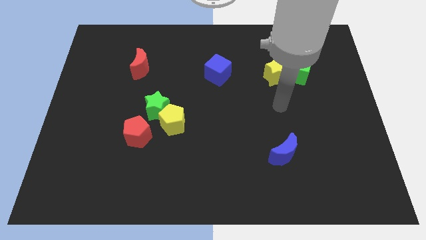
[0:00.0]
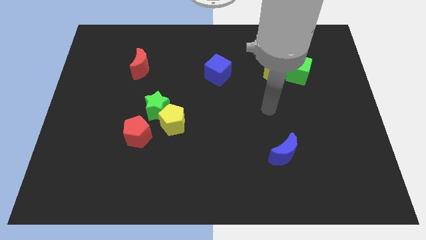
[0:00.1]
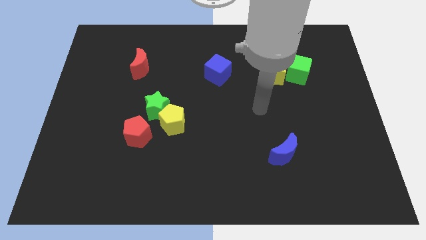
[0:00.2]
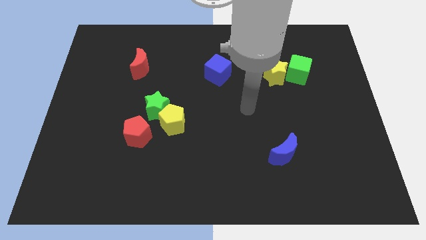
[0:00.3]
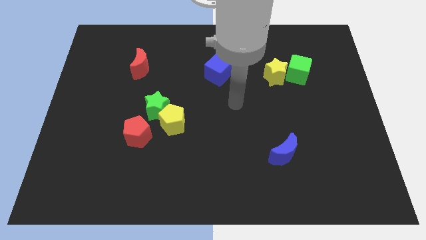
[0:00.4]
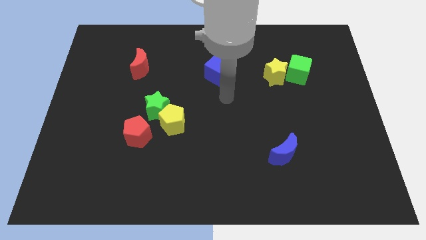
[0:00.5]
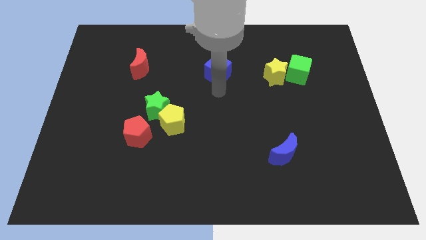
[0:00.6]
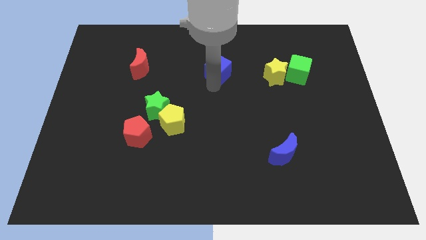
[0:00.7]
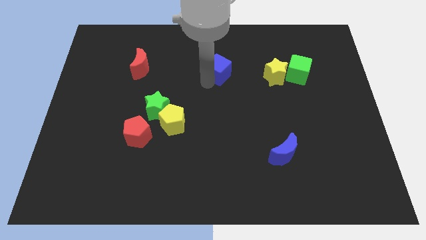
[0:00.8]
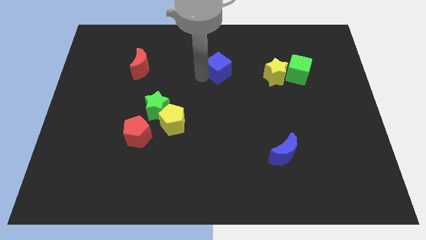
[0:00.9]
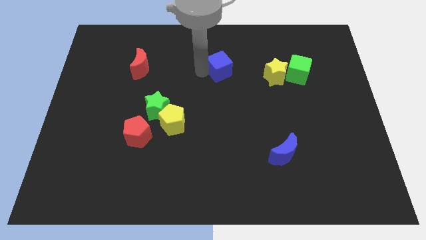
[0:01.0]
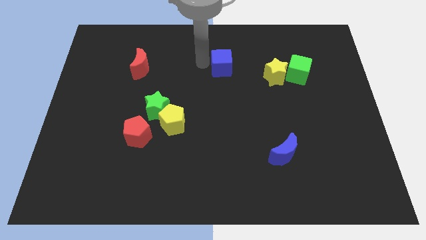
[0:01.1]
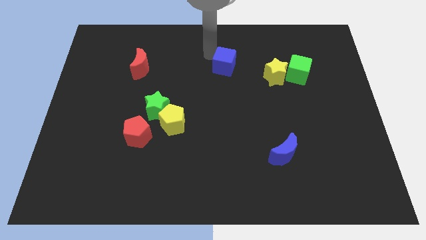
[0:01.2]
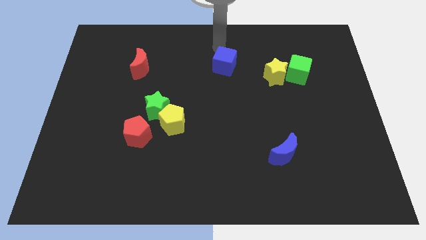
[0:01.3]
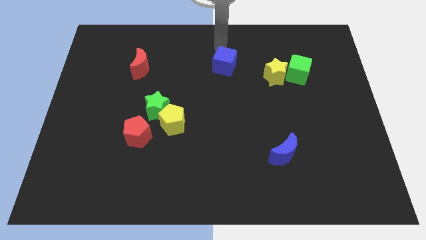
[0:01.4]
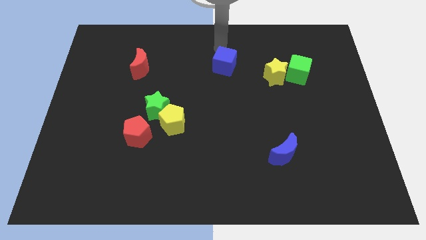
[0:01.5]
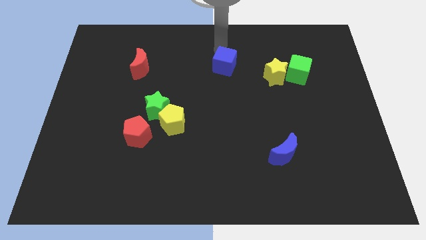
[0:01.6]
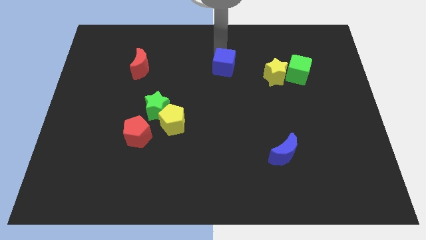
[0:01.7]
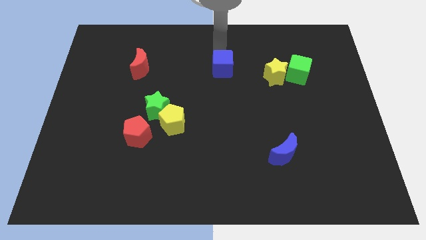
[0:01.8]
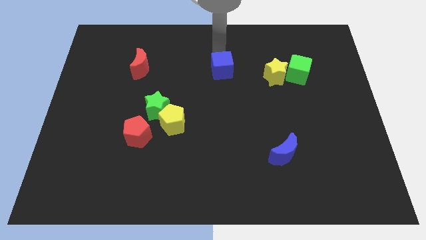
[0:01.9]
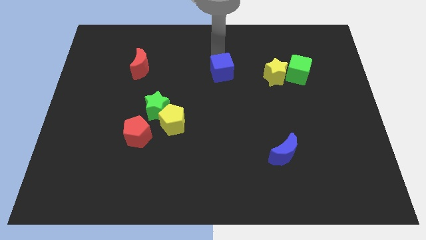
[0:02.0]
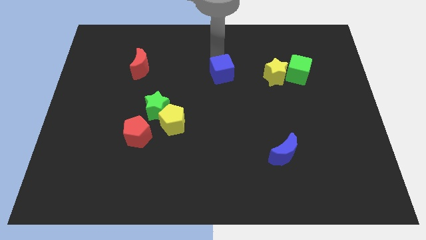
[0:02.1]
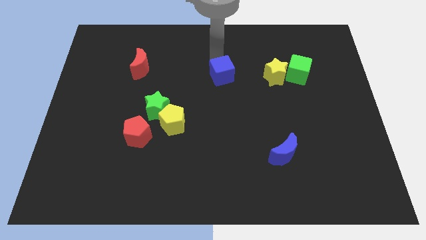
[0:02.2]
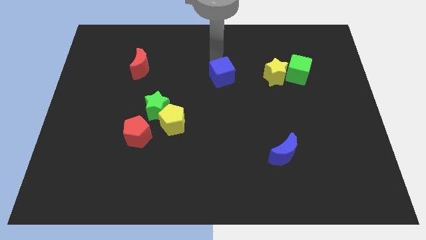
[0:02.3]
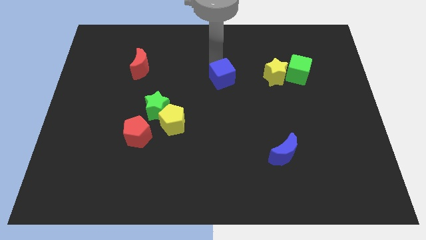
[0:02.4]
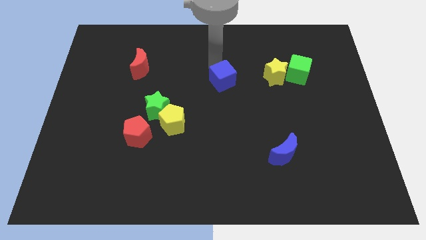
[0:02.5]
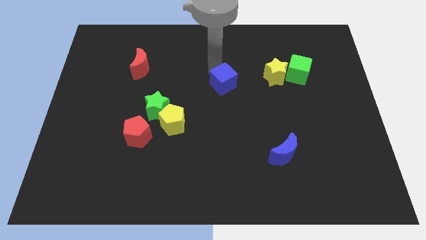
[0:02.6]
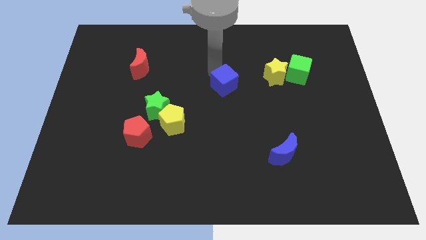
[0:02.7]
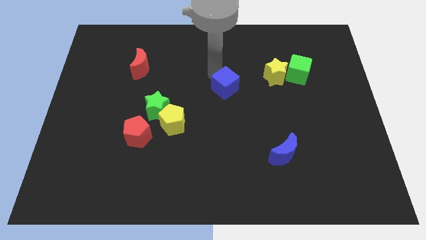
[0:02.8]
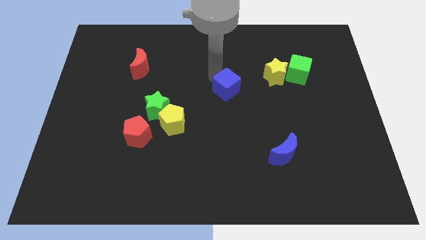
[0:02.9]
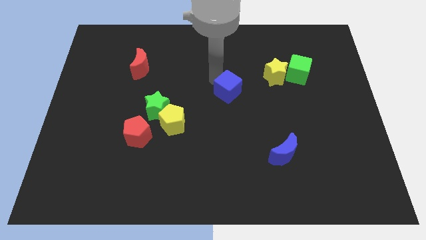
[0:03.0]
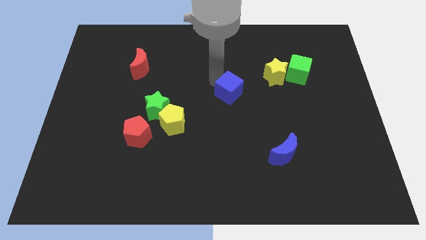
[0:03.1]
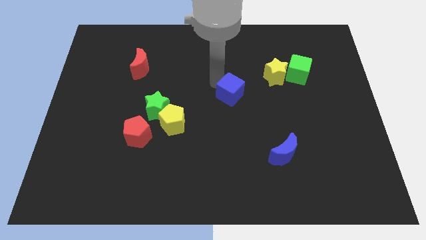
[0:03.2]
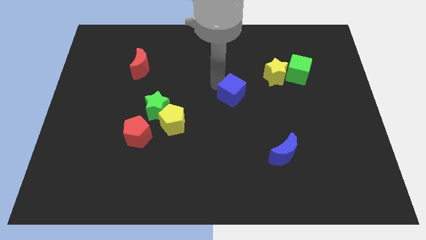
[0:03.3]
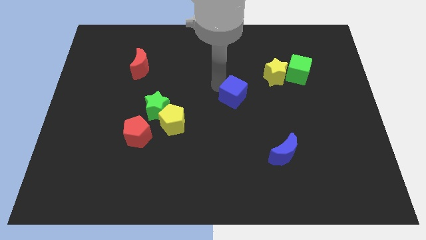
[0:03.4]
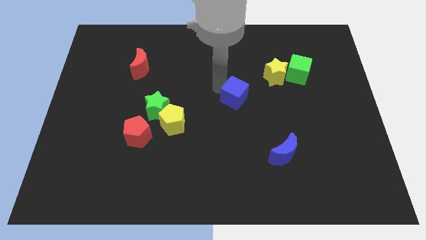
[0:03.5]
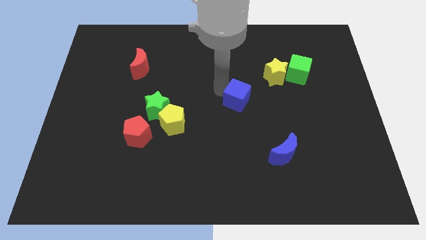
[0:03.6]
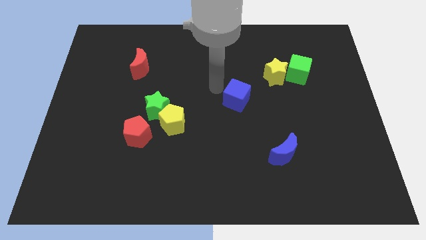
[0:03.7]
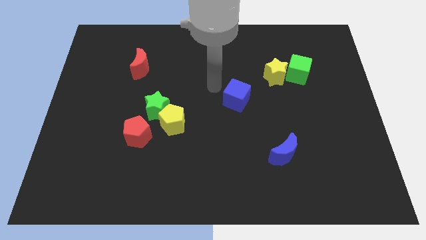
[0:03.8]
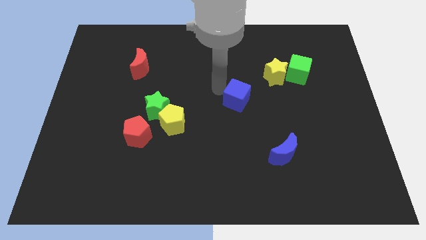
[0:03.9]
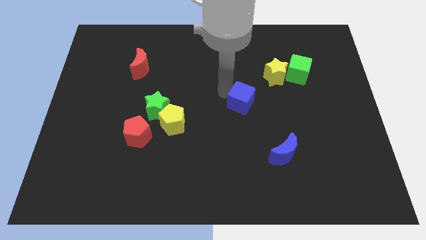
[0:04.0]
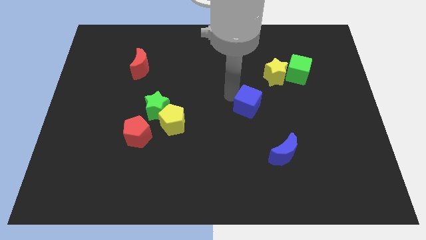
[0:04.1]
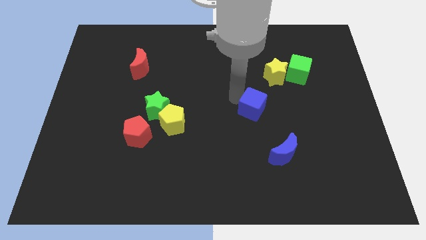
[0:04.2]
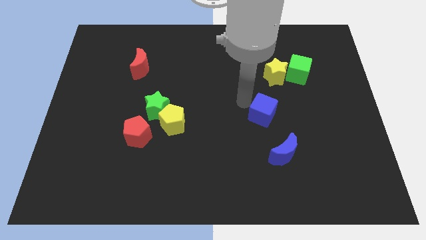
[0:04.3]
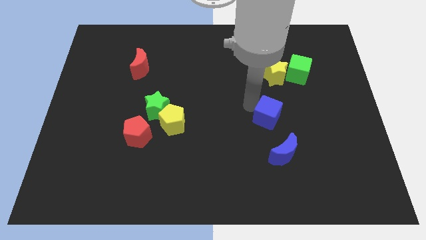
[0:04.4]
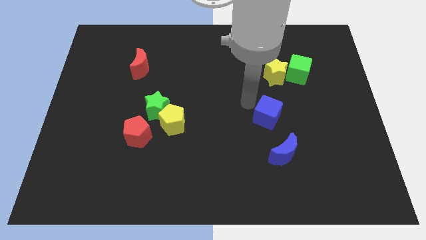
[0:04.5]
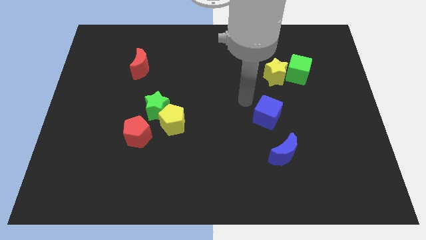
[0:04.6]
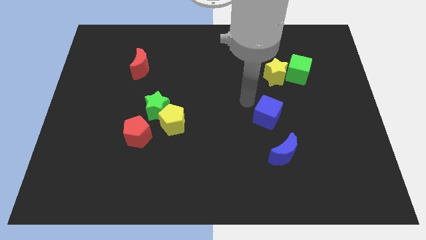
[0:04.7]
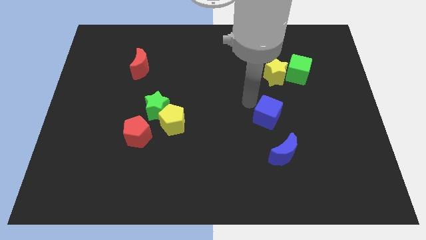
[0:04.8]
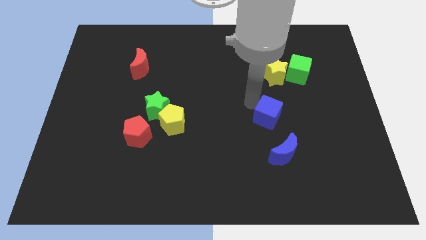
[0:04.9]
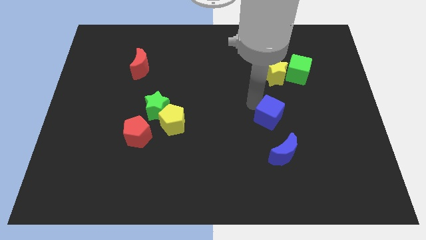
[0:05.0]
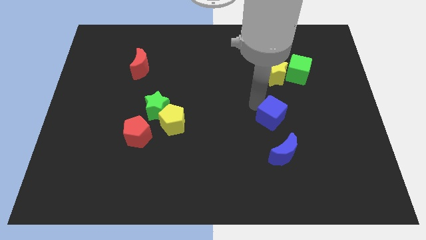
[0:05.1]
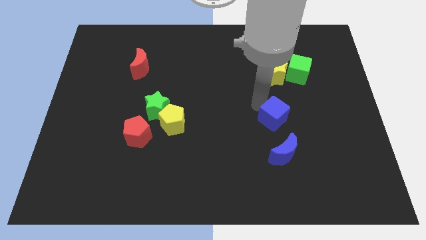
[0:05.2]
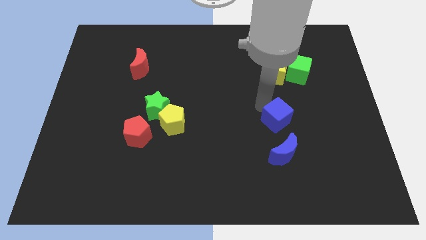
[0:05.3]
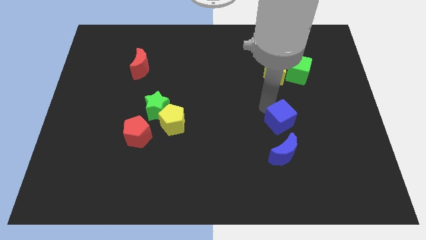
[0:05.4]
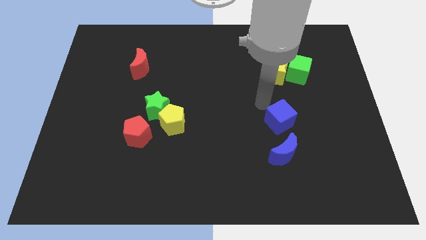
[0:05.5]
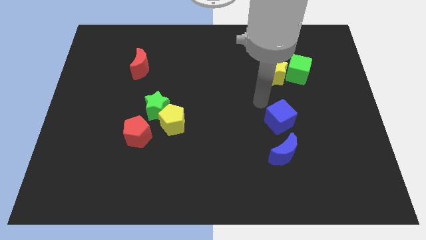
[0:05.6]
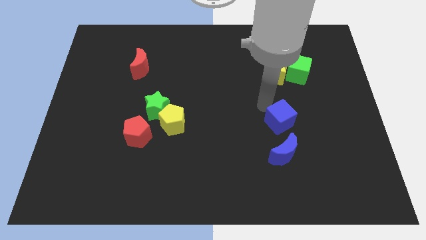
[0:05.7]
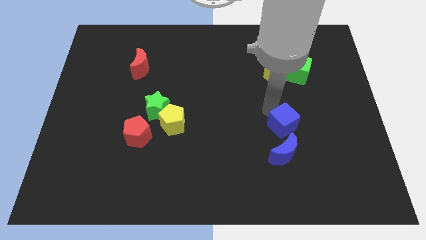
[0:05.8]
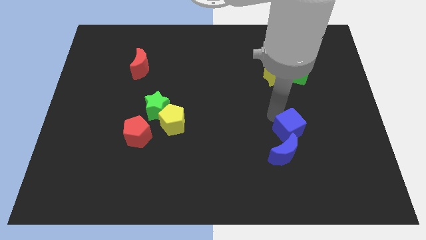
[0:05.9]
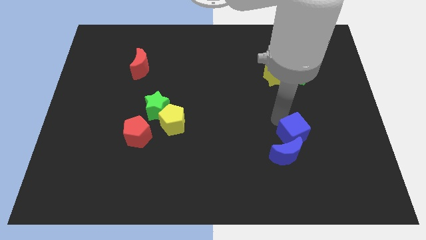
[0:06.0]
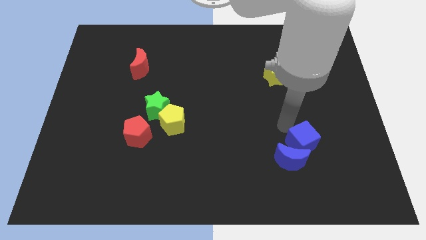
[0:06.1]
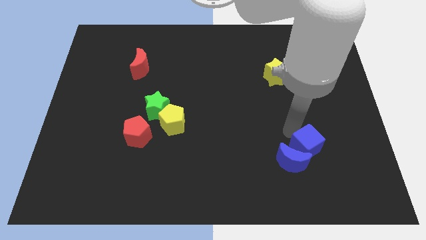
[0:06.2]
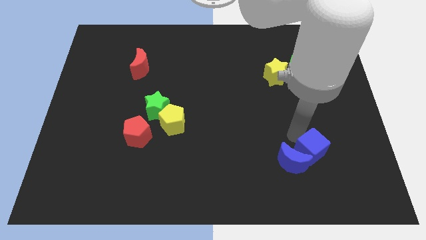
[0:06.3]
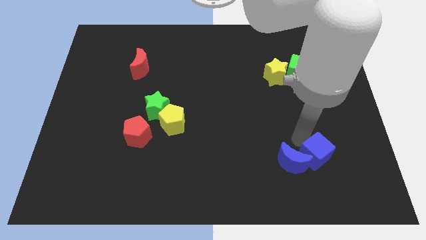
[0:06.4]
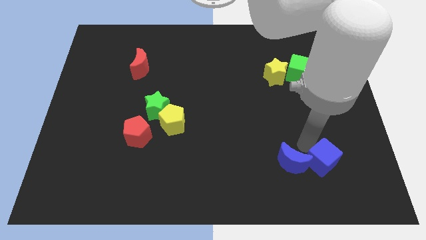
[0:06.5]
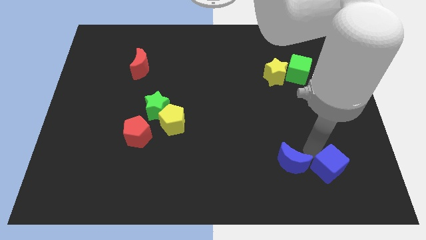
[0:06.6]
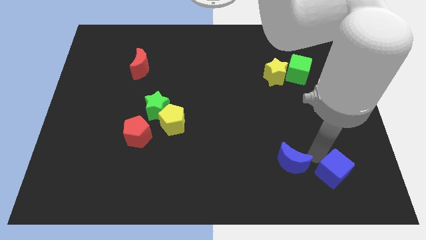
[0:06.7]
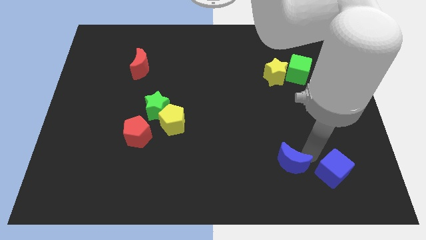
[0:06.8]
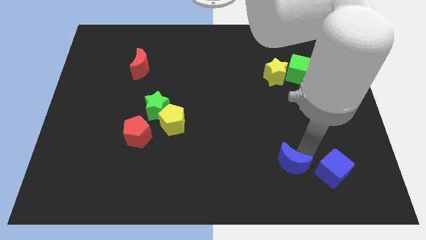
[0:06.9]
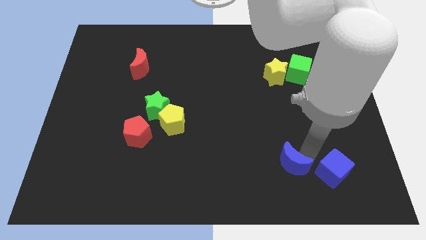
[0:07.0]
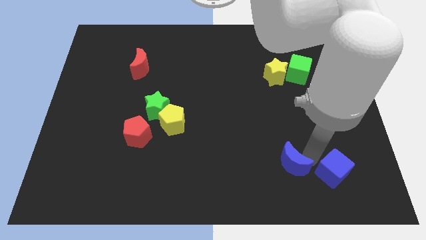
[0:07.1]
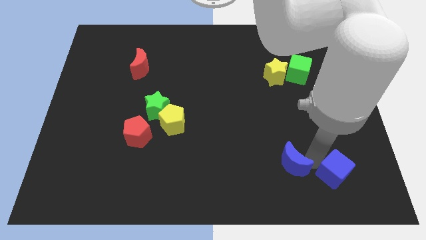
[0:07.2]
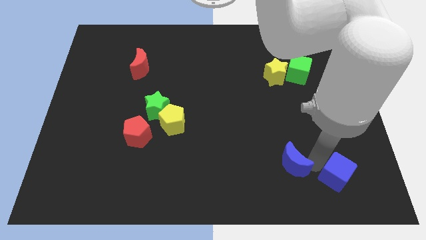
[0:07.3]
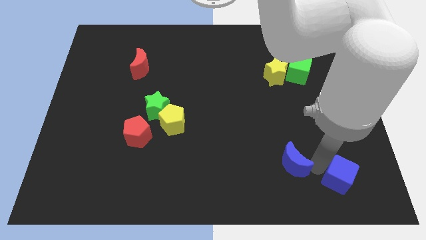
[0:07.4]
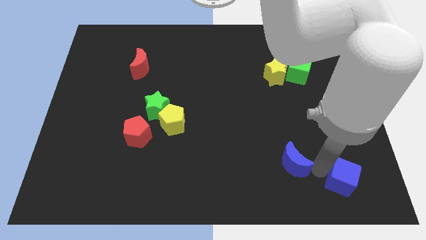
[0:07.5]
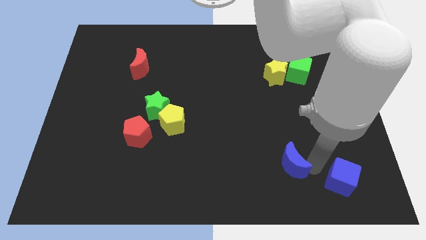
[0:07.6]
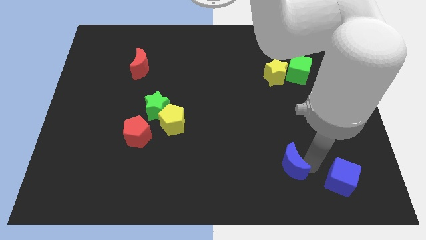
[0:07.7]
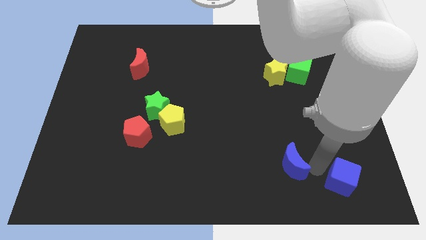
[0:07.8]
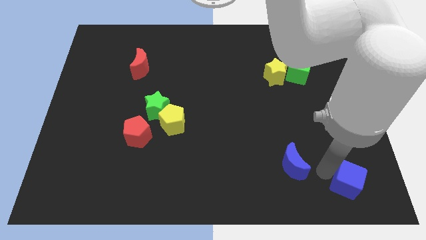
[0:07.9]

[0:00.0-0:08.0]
move the blue cube to the bottom right
